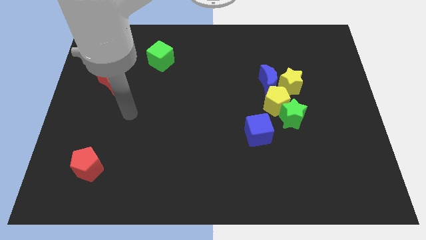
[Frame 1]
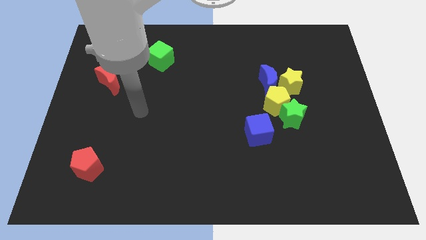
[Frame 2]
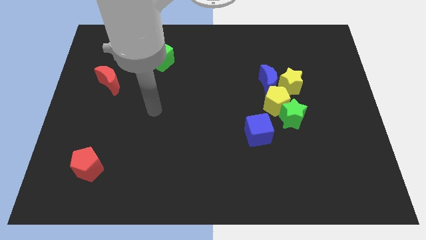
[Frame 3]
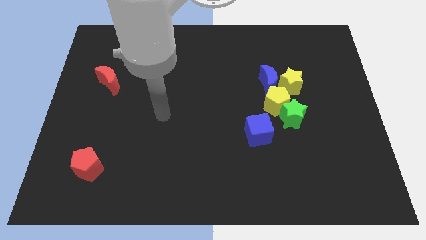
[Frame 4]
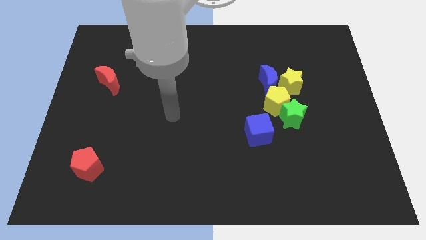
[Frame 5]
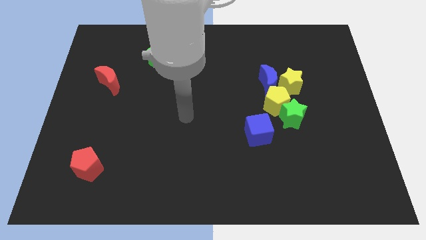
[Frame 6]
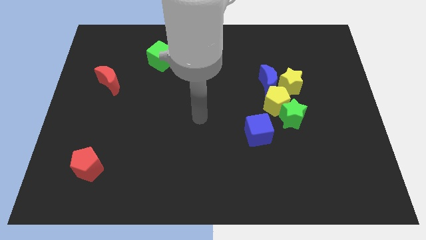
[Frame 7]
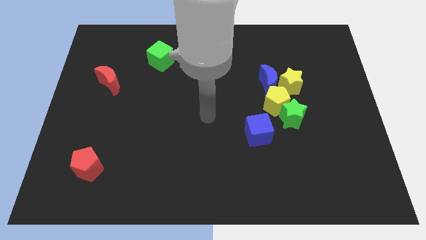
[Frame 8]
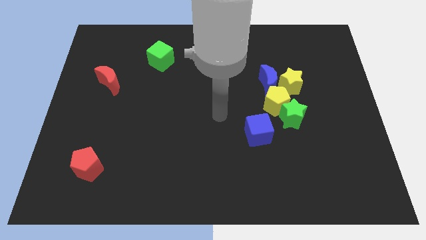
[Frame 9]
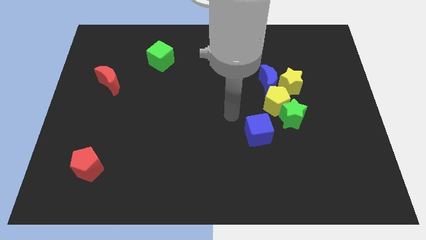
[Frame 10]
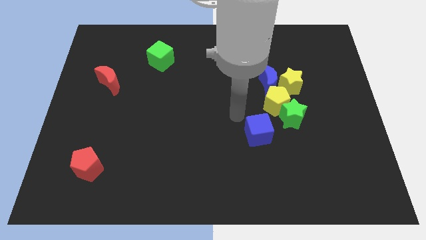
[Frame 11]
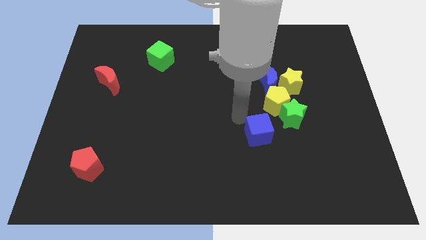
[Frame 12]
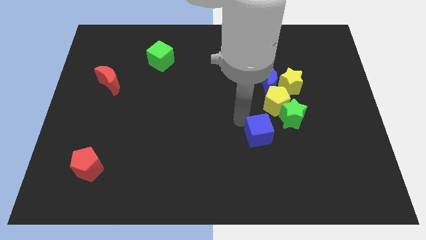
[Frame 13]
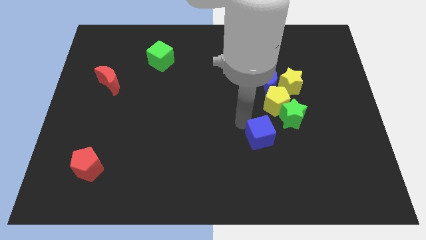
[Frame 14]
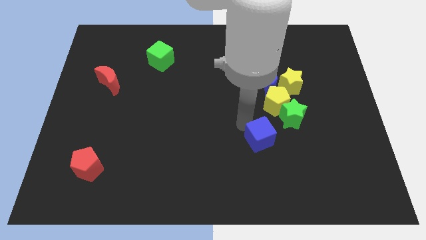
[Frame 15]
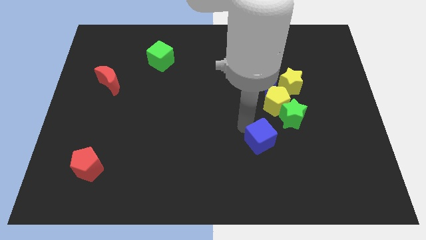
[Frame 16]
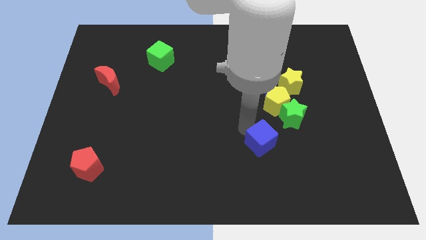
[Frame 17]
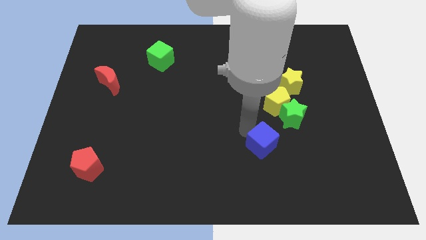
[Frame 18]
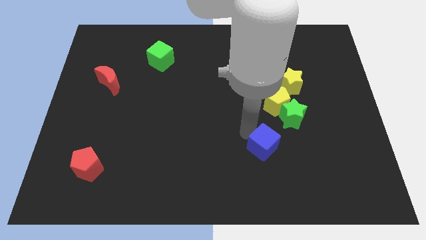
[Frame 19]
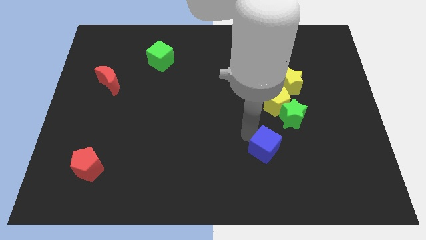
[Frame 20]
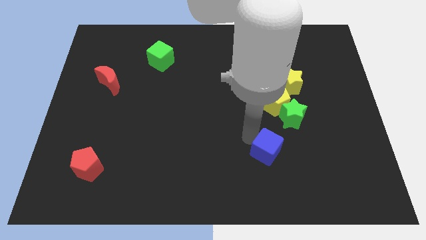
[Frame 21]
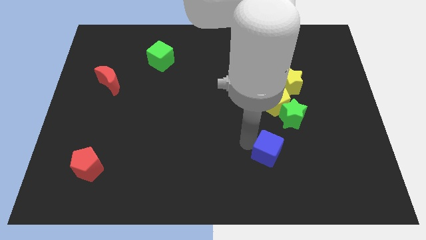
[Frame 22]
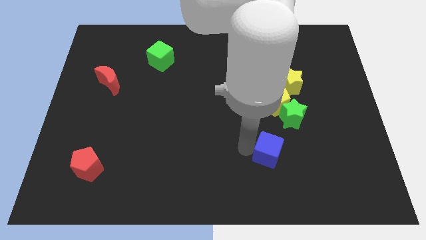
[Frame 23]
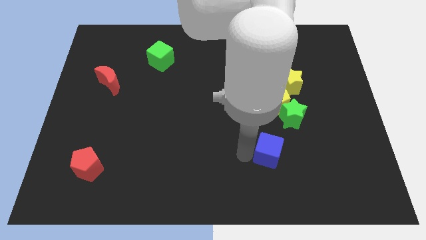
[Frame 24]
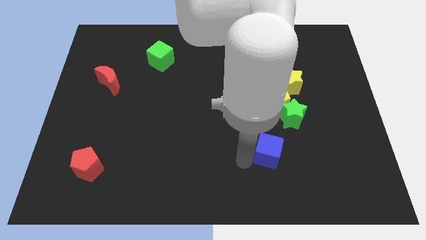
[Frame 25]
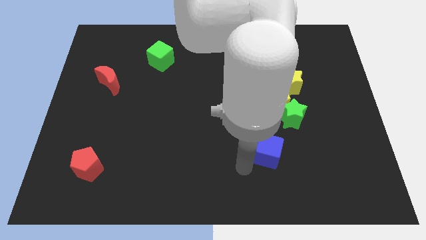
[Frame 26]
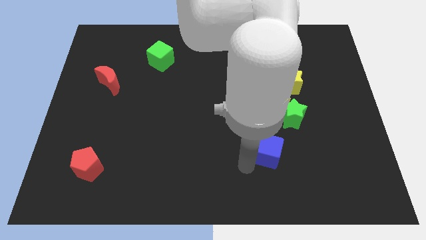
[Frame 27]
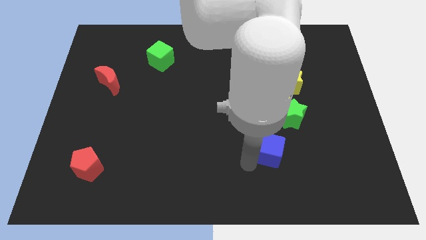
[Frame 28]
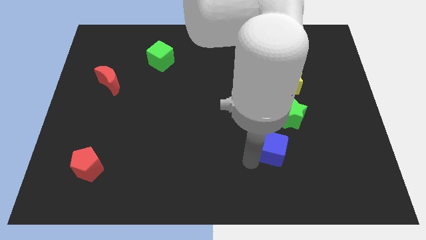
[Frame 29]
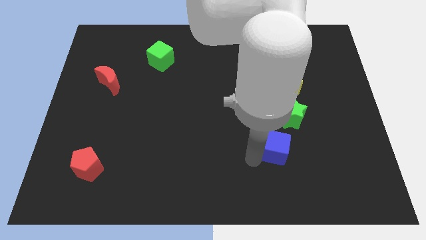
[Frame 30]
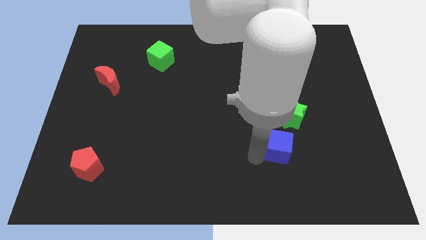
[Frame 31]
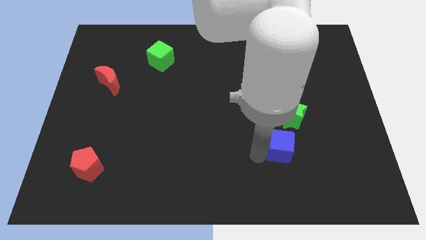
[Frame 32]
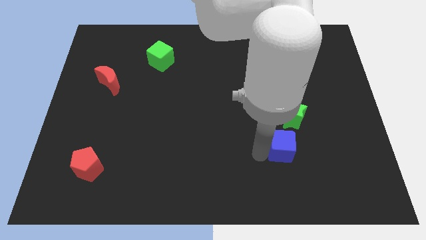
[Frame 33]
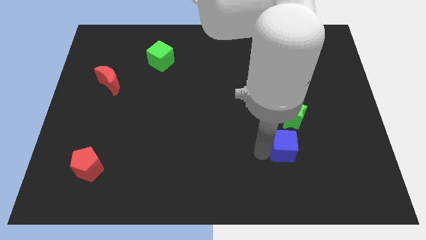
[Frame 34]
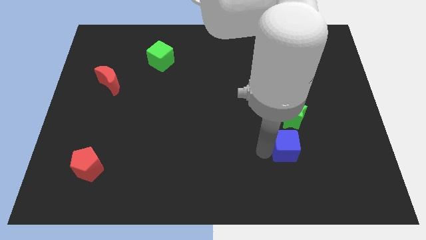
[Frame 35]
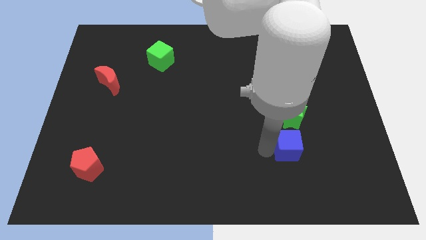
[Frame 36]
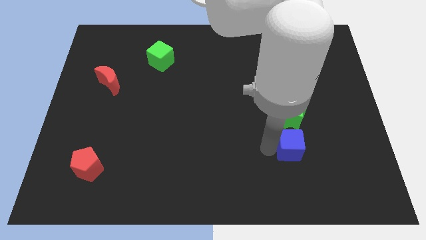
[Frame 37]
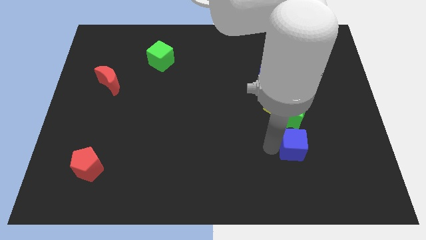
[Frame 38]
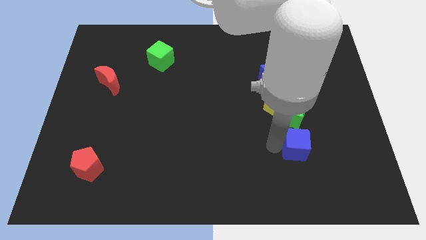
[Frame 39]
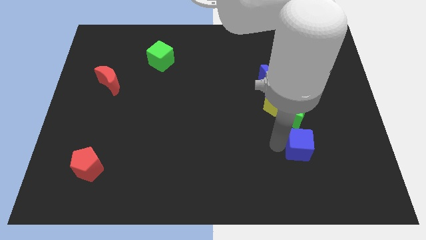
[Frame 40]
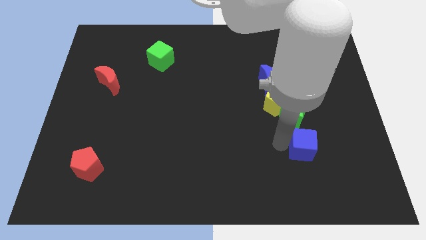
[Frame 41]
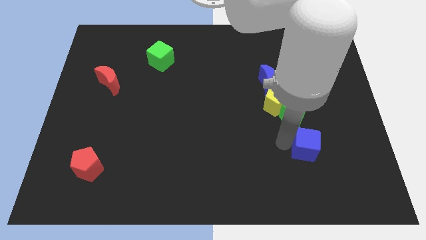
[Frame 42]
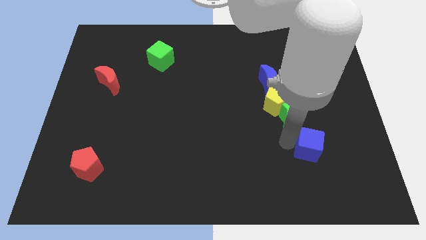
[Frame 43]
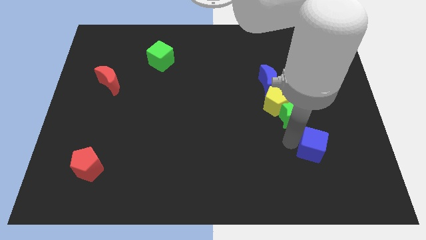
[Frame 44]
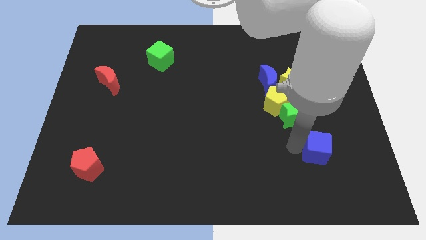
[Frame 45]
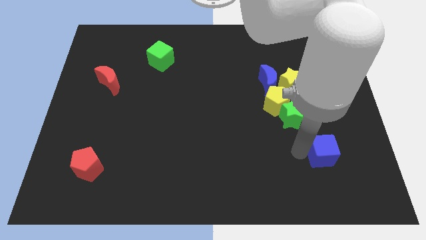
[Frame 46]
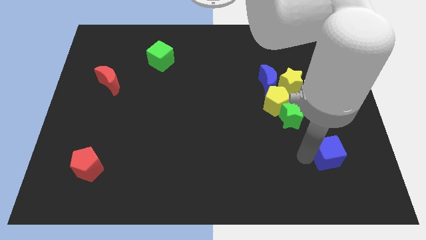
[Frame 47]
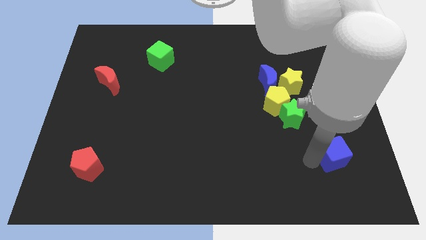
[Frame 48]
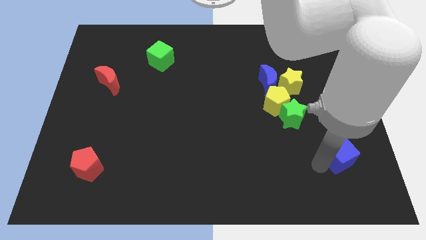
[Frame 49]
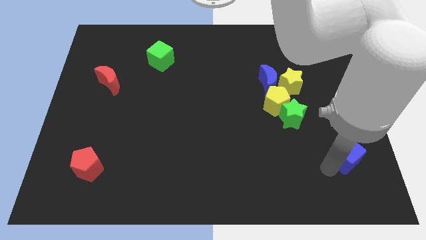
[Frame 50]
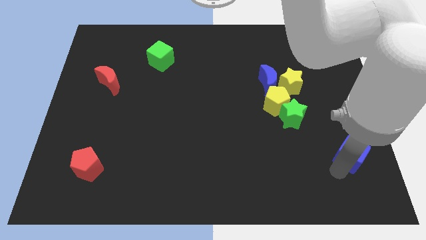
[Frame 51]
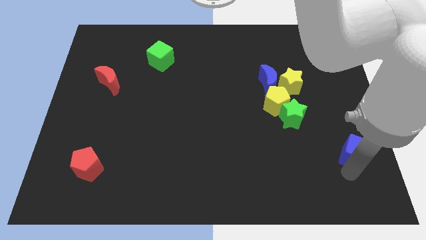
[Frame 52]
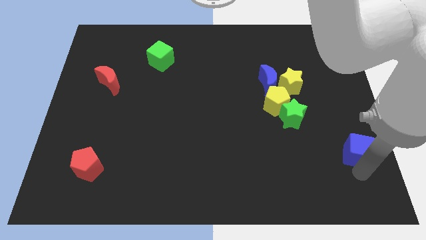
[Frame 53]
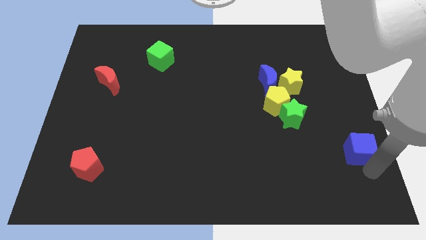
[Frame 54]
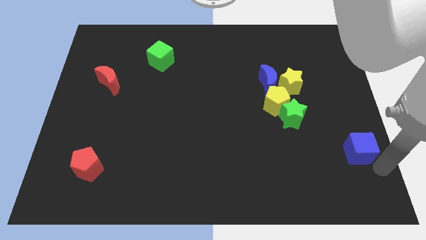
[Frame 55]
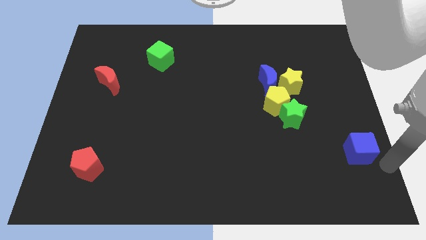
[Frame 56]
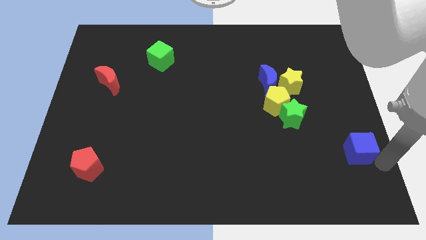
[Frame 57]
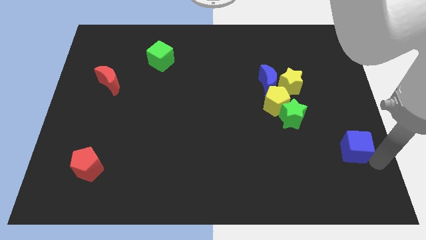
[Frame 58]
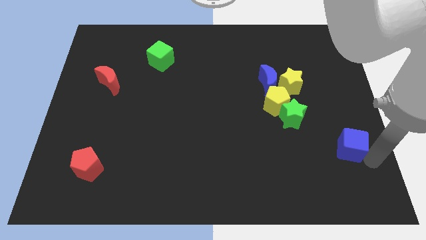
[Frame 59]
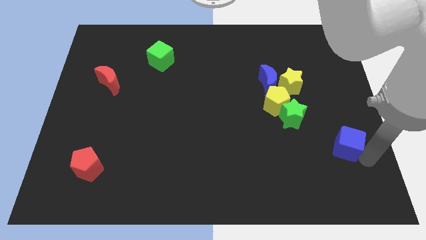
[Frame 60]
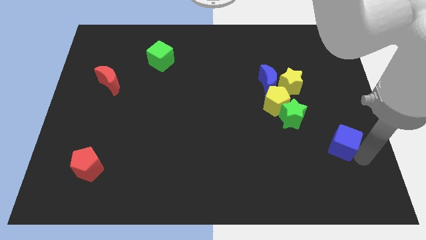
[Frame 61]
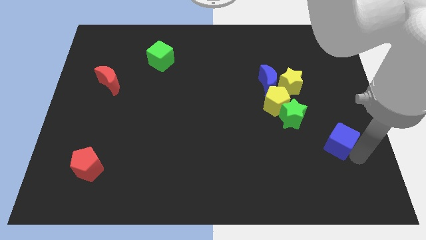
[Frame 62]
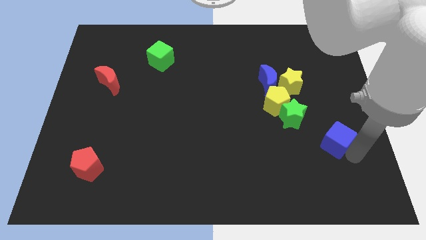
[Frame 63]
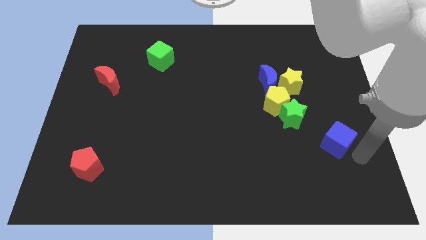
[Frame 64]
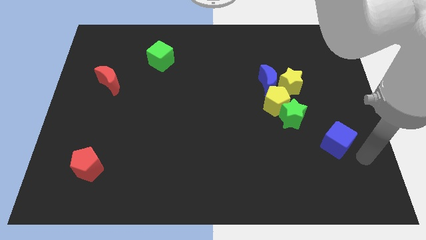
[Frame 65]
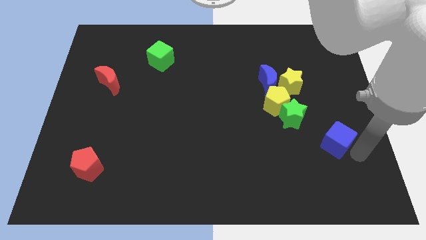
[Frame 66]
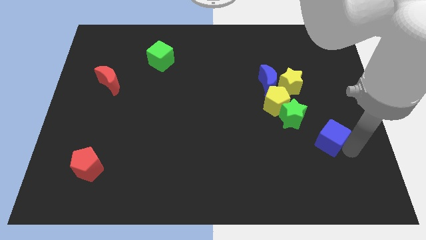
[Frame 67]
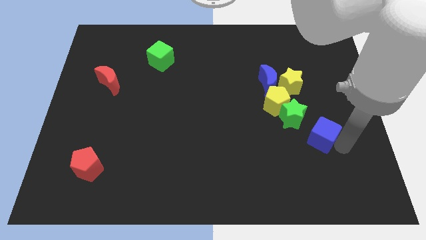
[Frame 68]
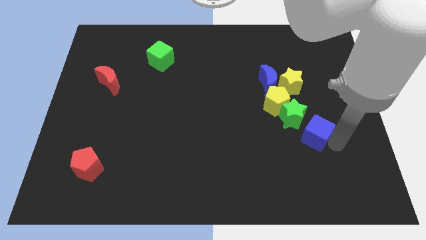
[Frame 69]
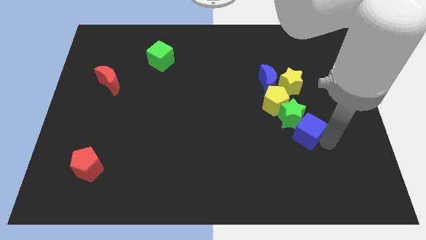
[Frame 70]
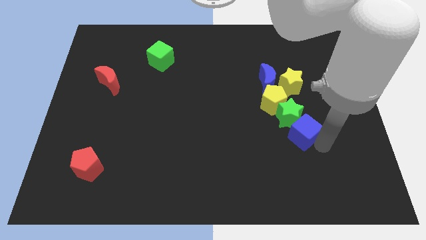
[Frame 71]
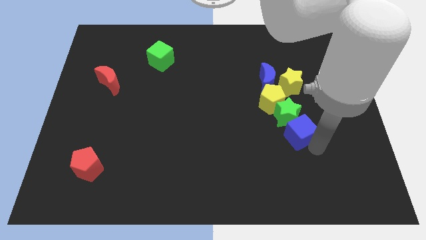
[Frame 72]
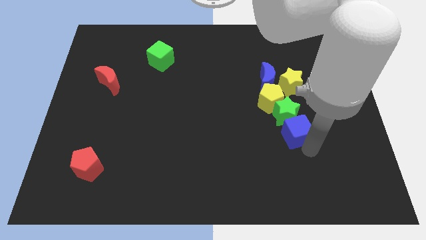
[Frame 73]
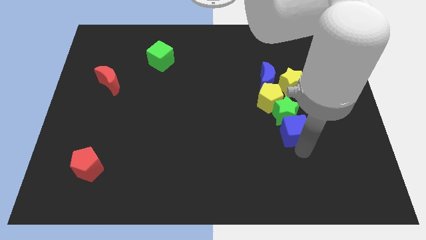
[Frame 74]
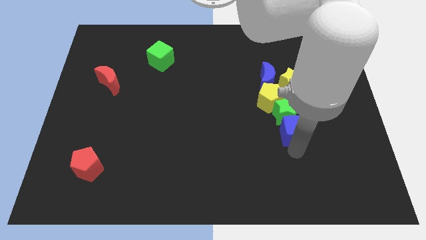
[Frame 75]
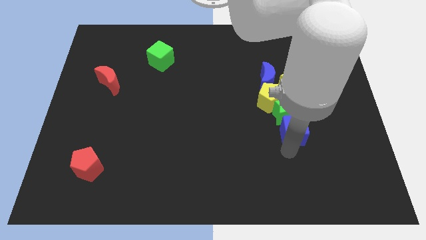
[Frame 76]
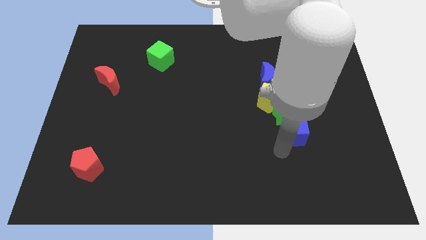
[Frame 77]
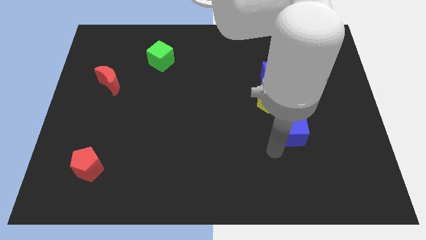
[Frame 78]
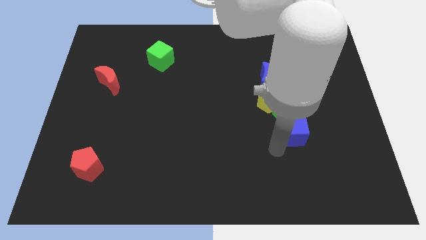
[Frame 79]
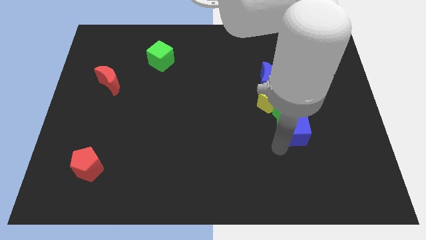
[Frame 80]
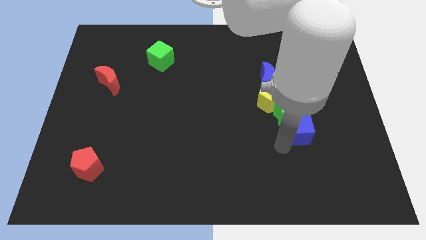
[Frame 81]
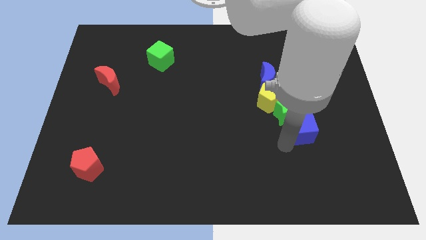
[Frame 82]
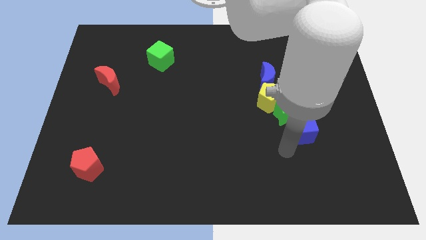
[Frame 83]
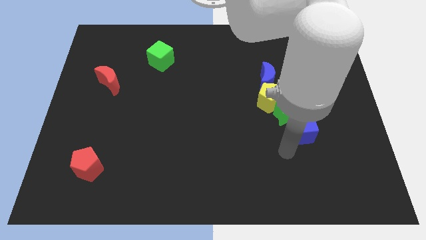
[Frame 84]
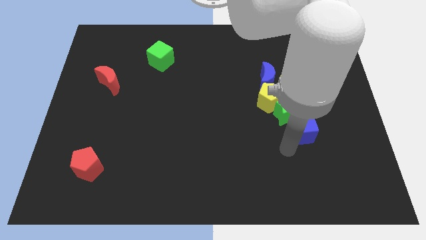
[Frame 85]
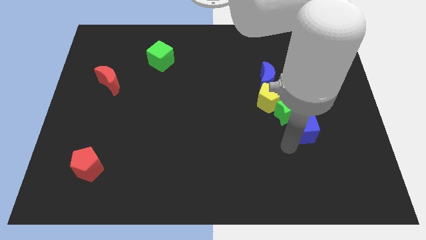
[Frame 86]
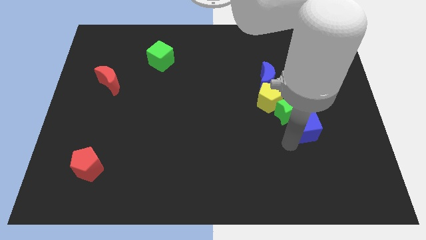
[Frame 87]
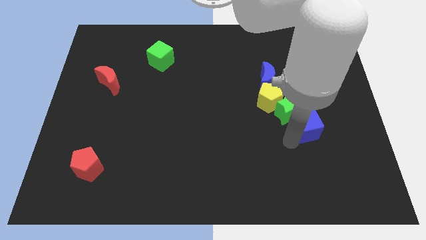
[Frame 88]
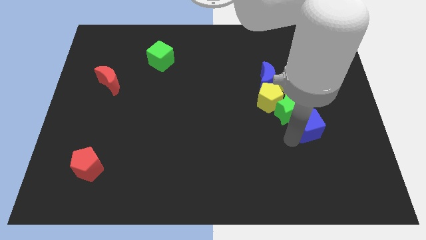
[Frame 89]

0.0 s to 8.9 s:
slightly slide the blue cube diagonally upwards and to the right
